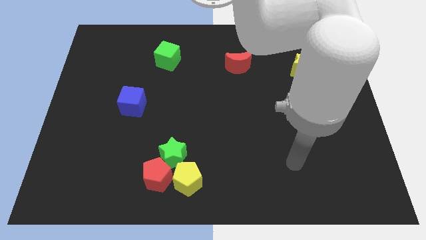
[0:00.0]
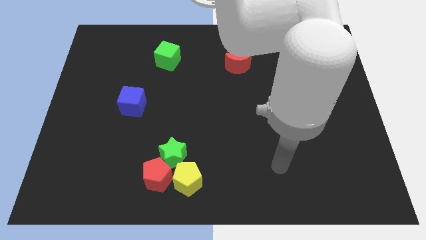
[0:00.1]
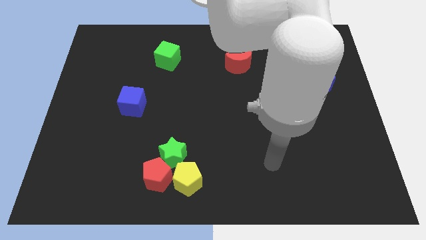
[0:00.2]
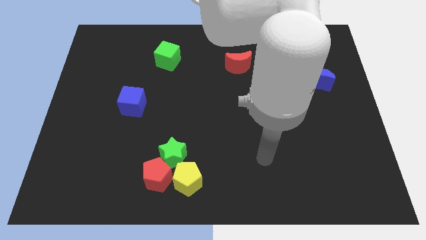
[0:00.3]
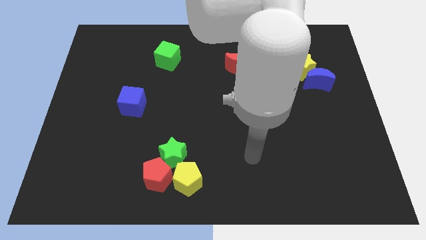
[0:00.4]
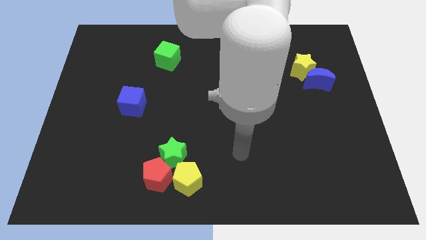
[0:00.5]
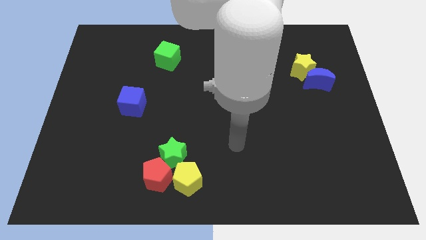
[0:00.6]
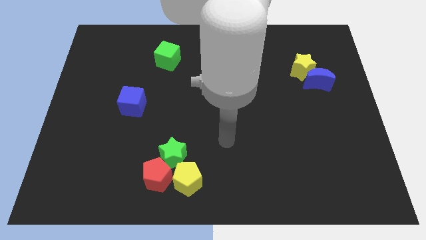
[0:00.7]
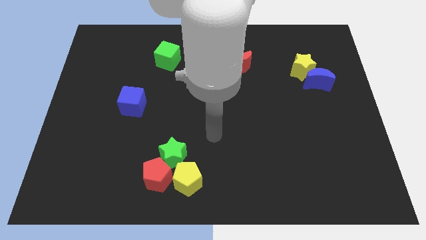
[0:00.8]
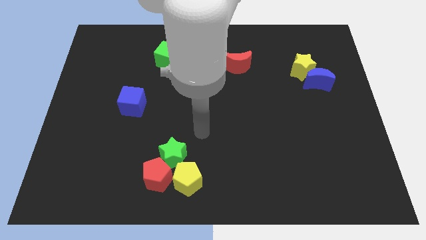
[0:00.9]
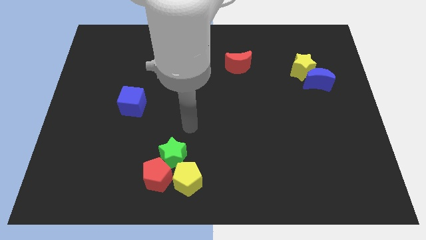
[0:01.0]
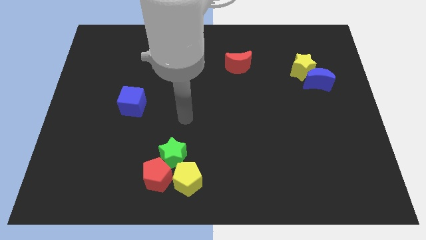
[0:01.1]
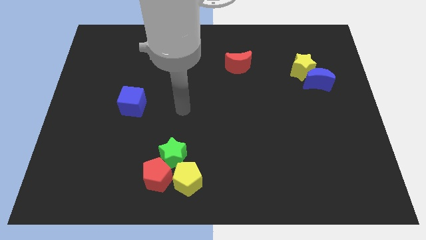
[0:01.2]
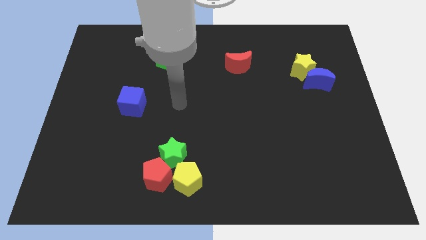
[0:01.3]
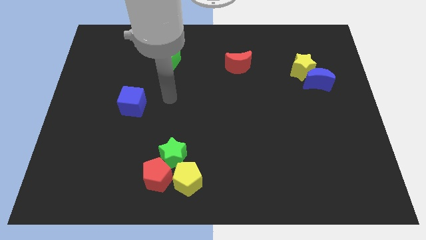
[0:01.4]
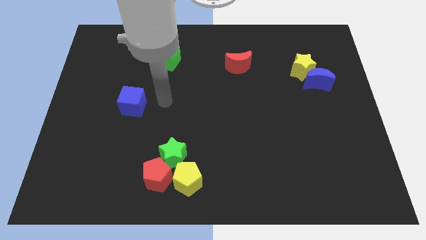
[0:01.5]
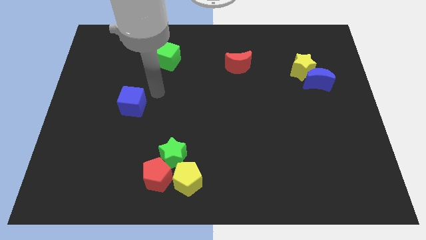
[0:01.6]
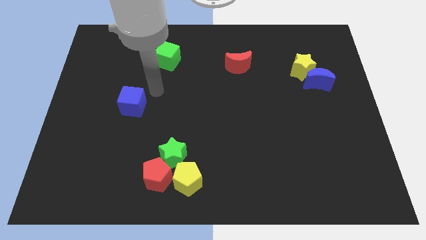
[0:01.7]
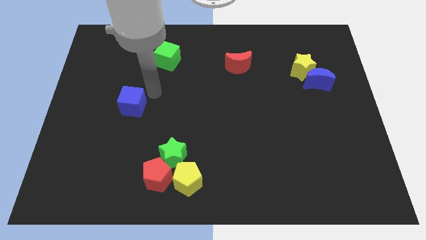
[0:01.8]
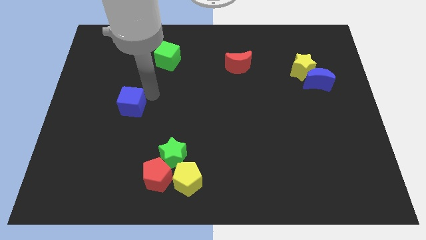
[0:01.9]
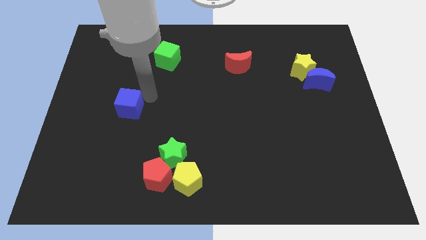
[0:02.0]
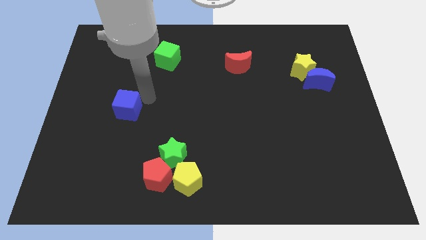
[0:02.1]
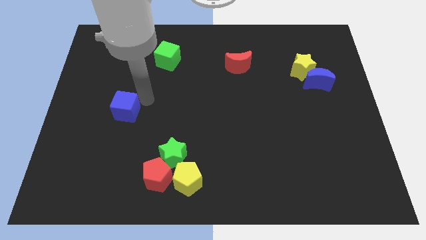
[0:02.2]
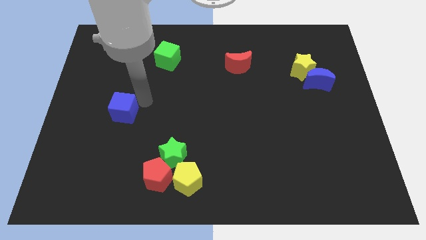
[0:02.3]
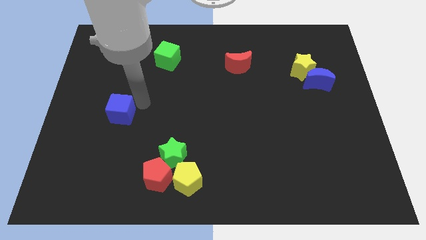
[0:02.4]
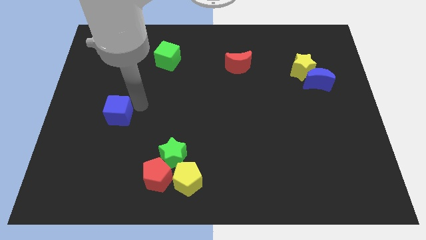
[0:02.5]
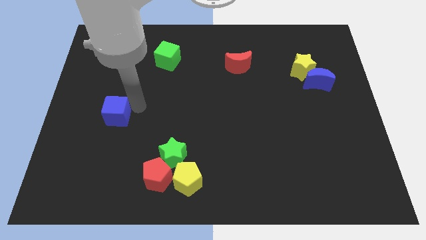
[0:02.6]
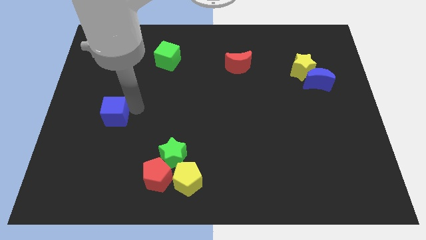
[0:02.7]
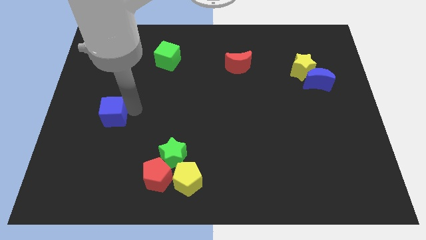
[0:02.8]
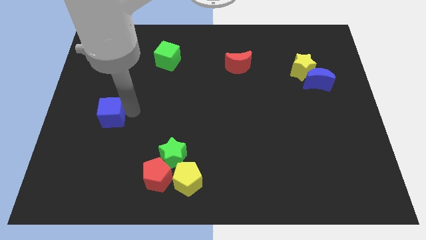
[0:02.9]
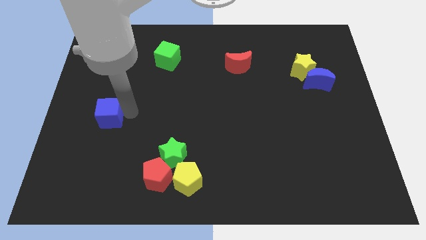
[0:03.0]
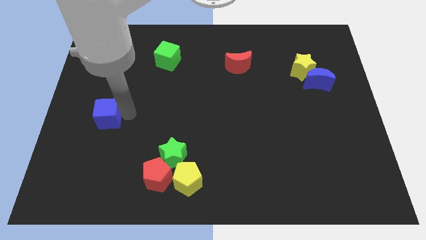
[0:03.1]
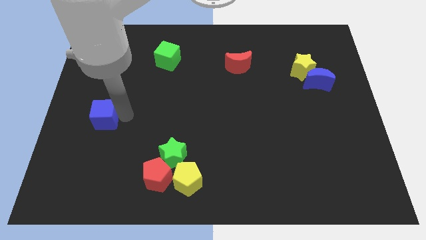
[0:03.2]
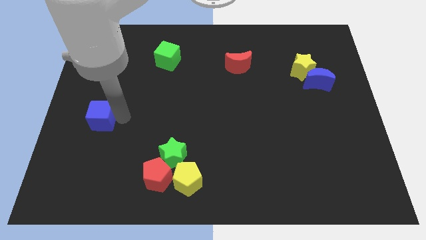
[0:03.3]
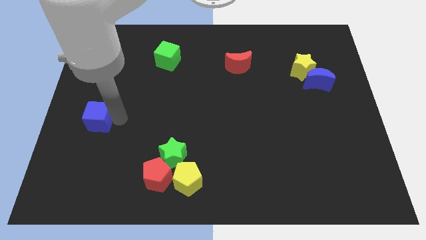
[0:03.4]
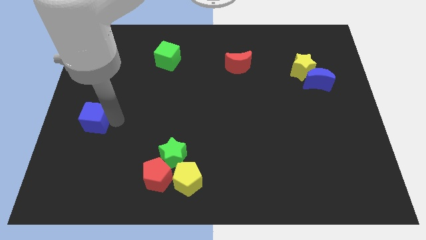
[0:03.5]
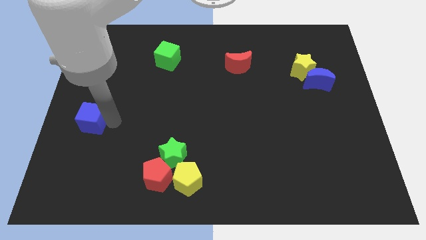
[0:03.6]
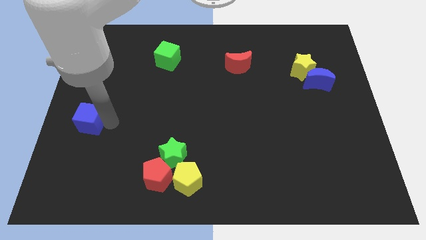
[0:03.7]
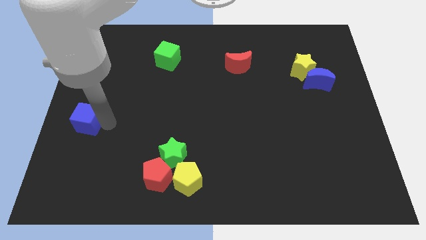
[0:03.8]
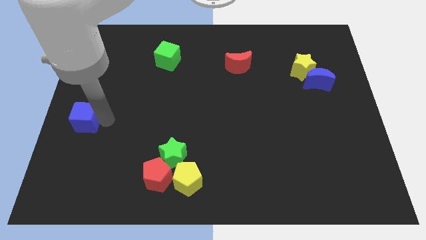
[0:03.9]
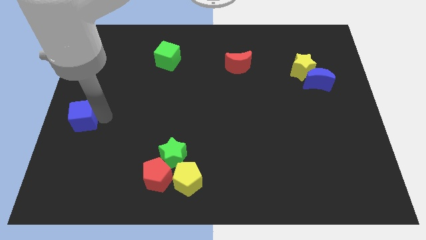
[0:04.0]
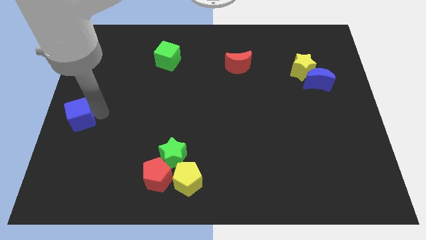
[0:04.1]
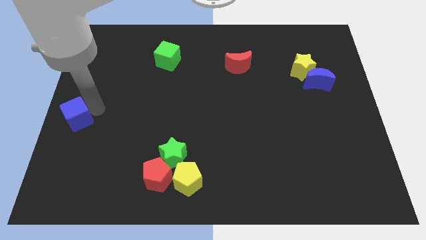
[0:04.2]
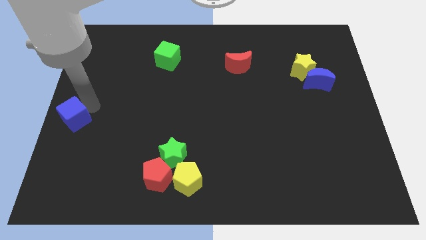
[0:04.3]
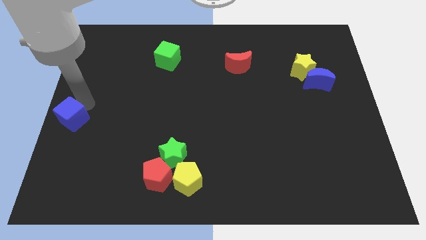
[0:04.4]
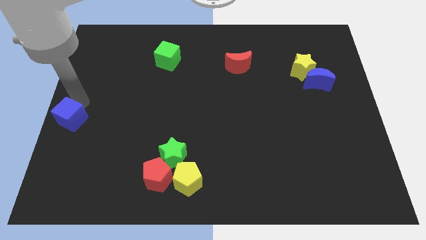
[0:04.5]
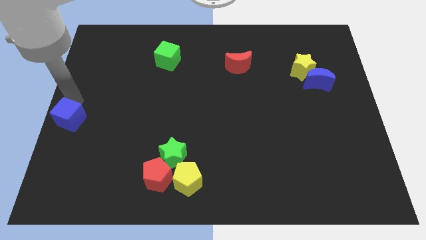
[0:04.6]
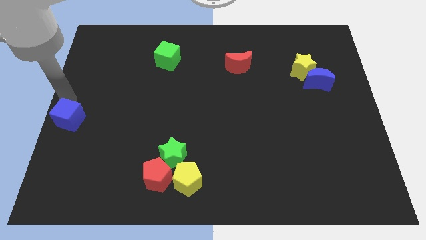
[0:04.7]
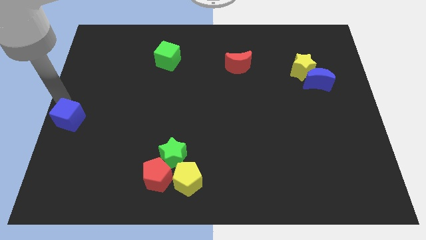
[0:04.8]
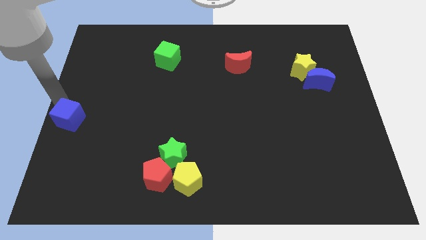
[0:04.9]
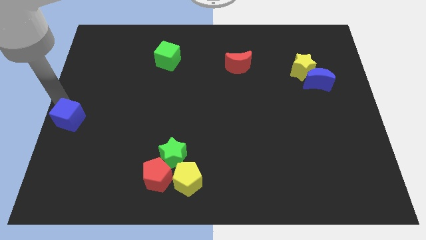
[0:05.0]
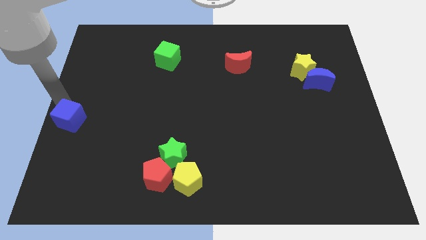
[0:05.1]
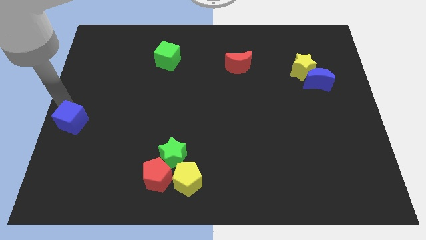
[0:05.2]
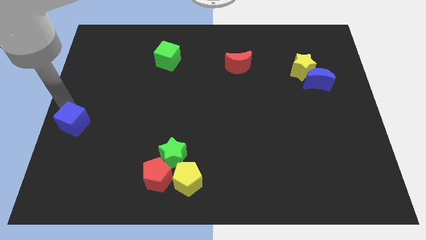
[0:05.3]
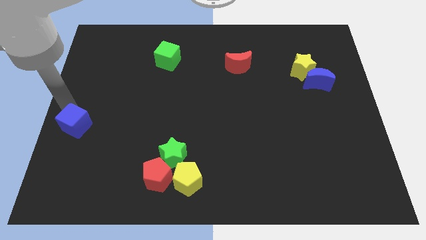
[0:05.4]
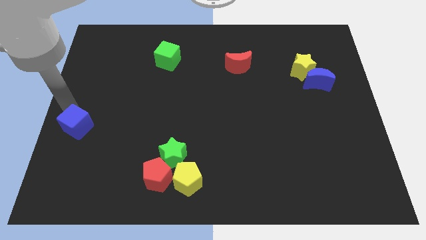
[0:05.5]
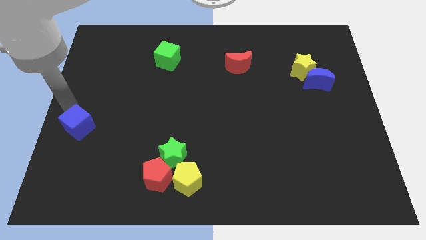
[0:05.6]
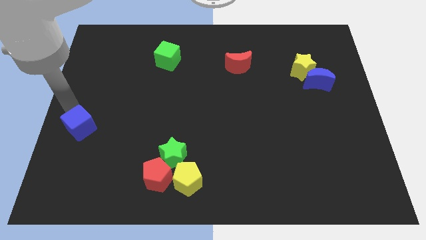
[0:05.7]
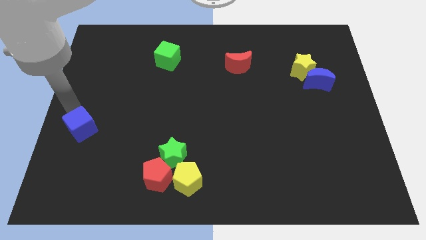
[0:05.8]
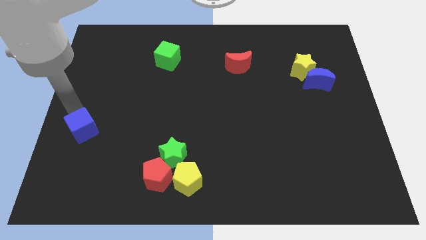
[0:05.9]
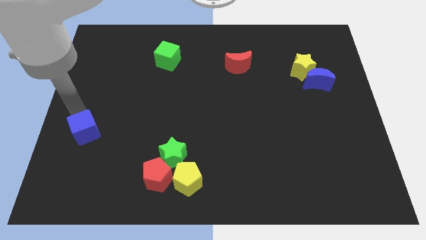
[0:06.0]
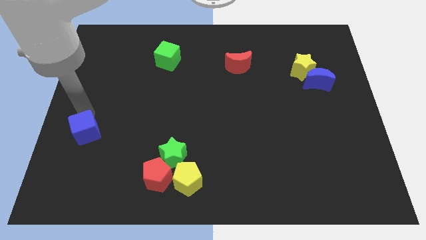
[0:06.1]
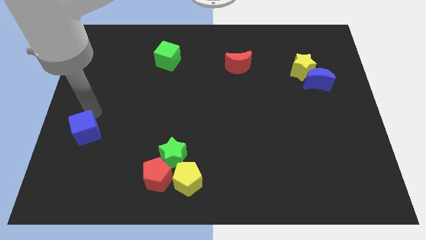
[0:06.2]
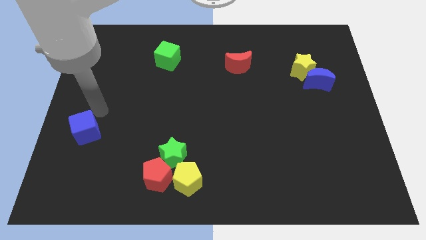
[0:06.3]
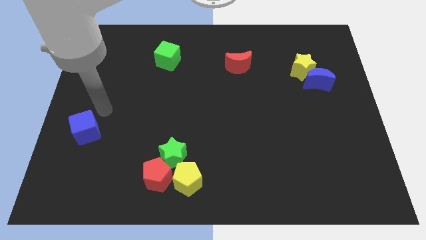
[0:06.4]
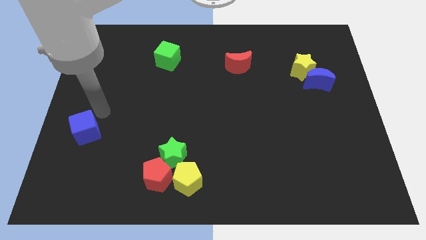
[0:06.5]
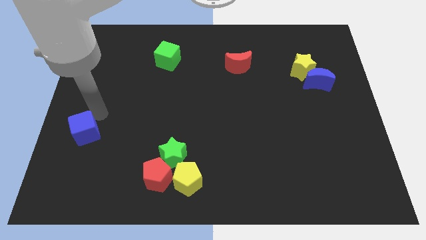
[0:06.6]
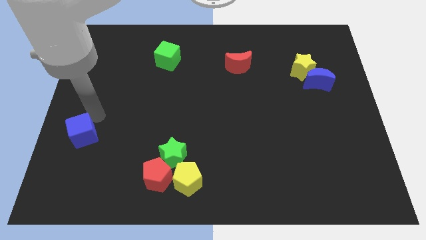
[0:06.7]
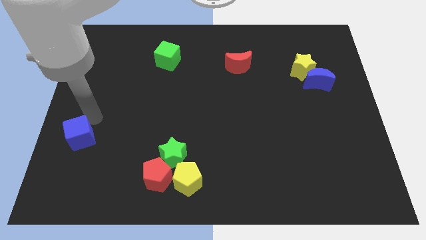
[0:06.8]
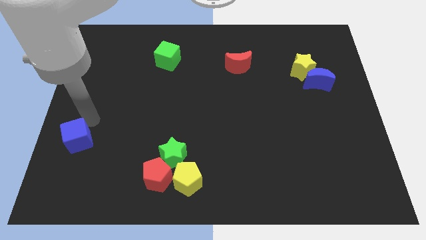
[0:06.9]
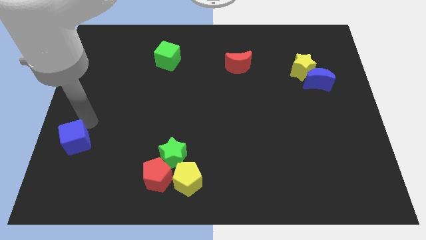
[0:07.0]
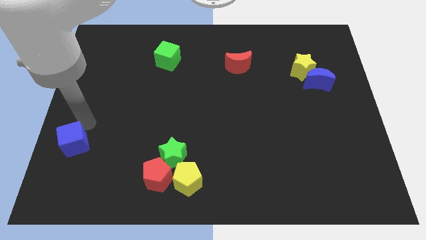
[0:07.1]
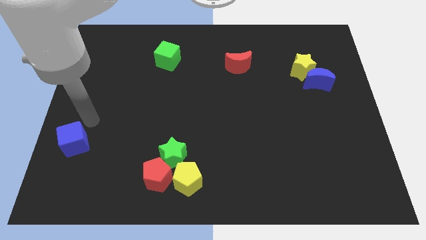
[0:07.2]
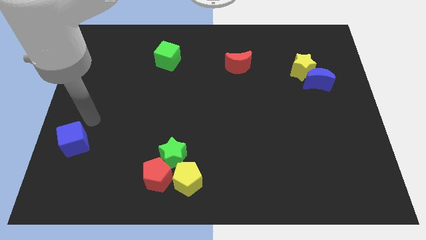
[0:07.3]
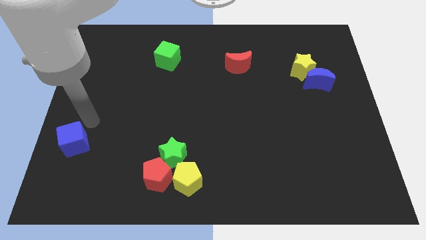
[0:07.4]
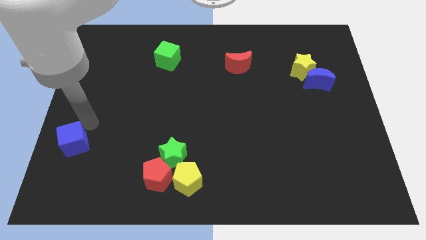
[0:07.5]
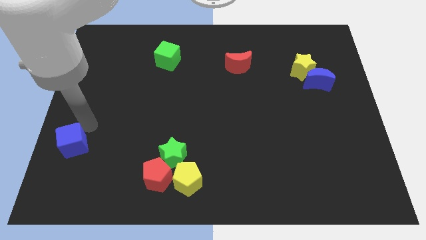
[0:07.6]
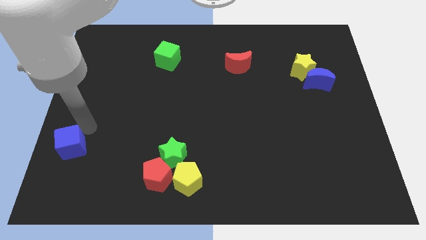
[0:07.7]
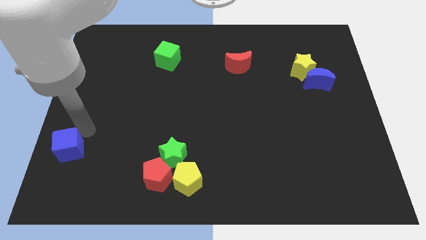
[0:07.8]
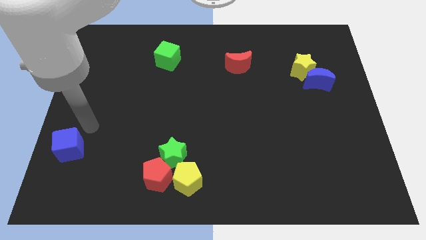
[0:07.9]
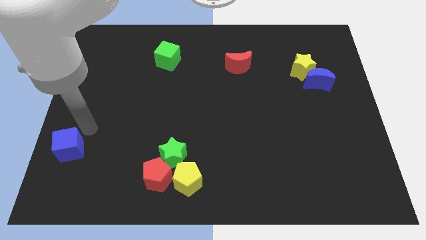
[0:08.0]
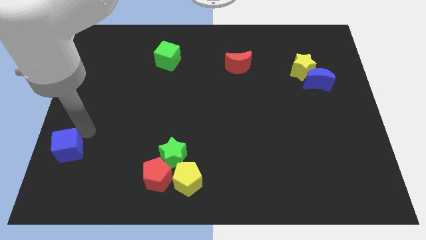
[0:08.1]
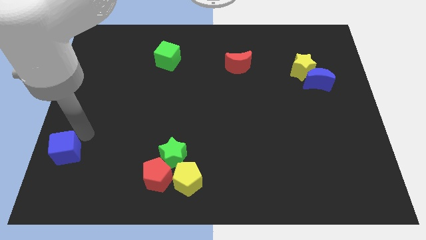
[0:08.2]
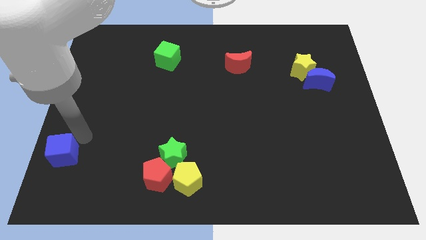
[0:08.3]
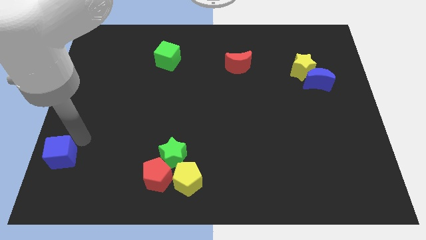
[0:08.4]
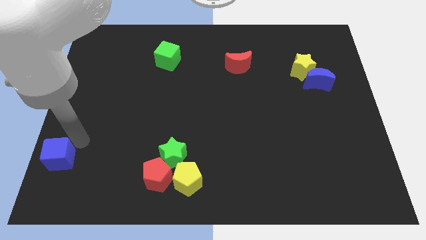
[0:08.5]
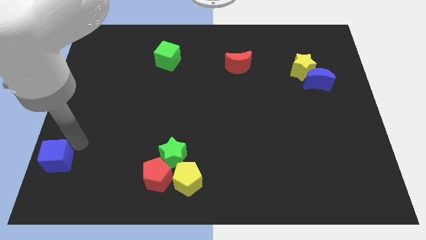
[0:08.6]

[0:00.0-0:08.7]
push the blue cube to the bottom left
